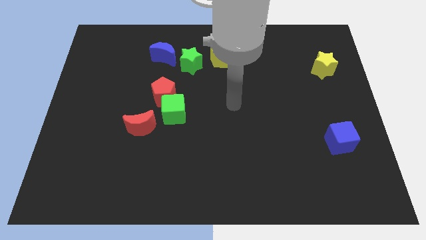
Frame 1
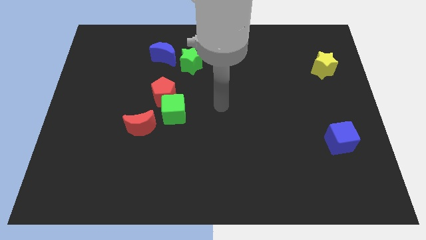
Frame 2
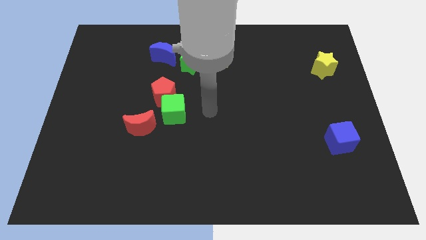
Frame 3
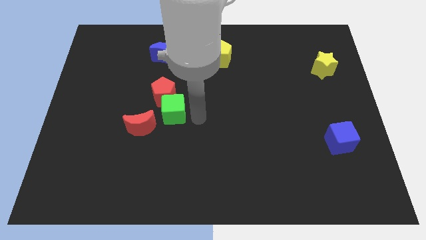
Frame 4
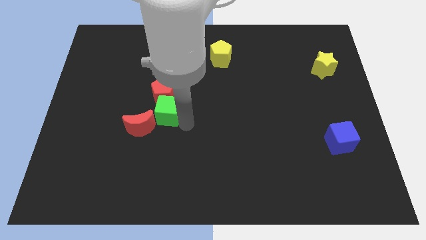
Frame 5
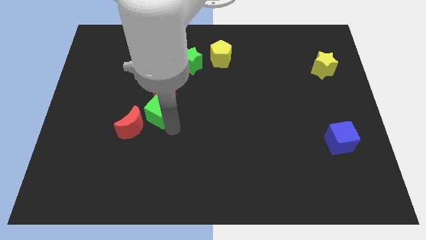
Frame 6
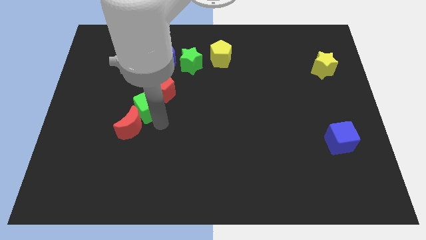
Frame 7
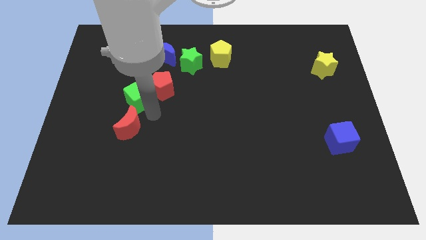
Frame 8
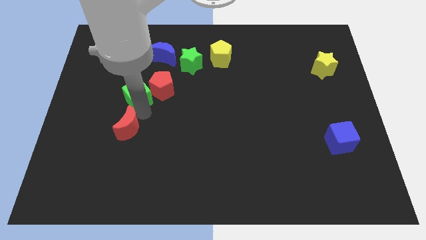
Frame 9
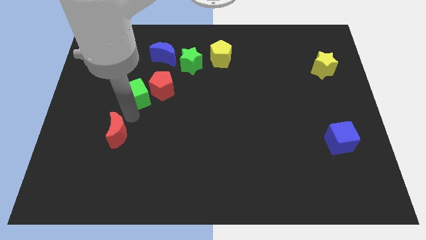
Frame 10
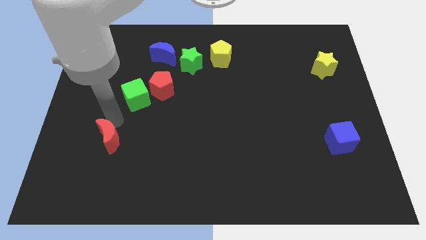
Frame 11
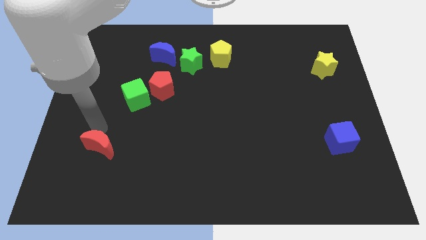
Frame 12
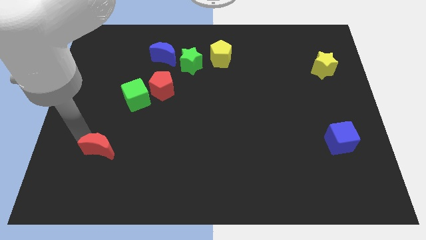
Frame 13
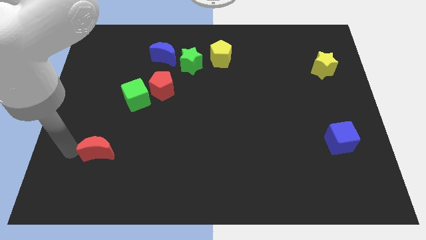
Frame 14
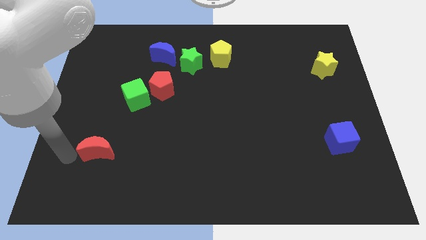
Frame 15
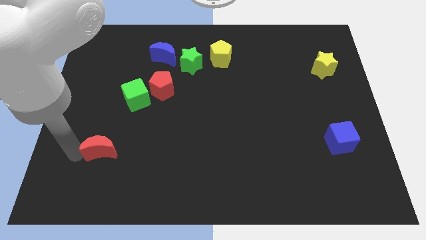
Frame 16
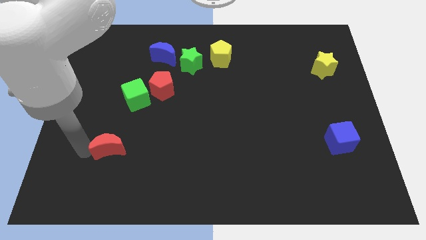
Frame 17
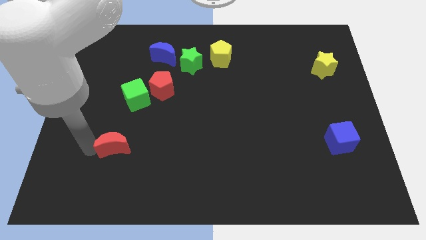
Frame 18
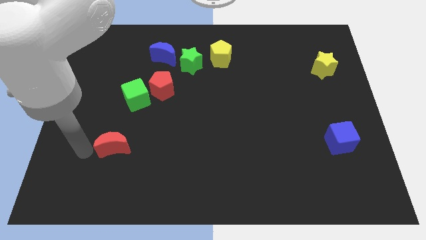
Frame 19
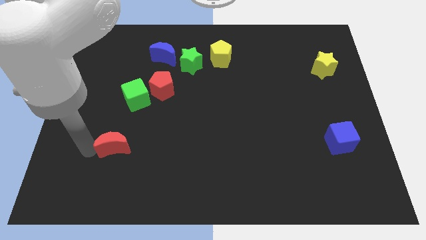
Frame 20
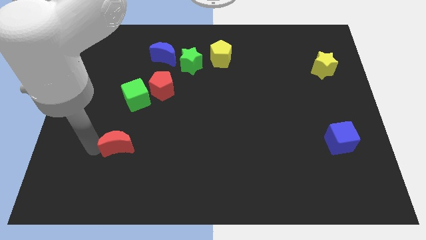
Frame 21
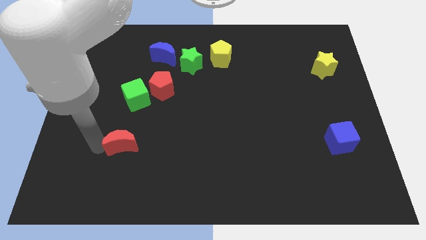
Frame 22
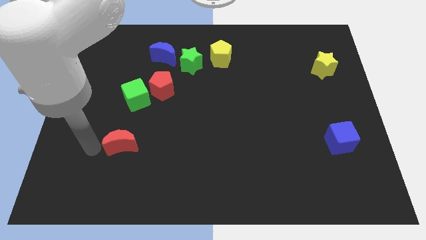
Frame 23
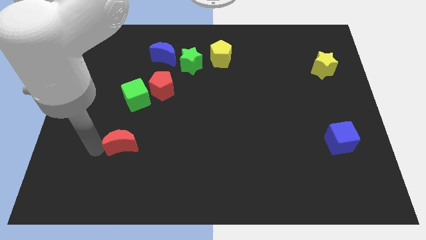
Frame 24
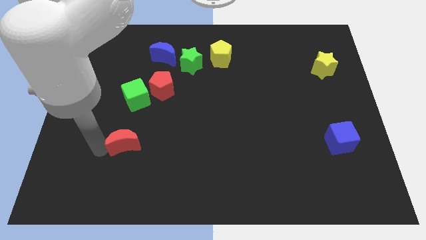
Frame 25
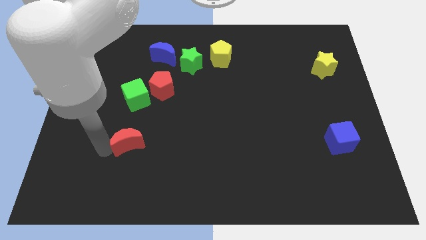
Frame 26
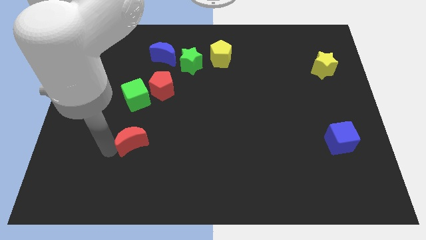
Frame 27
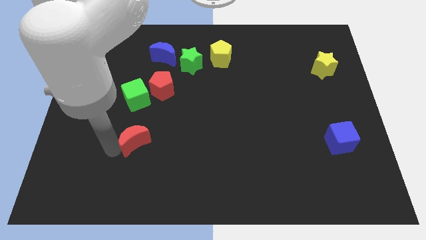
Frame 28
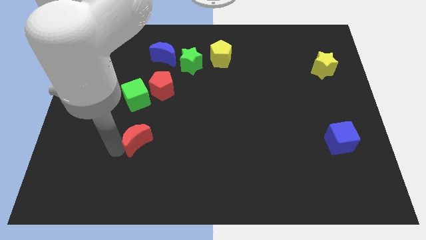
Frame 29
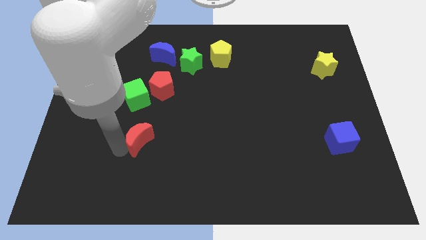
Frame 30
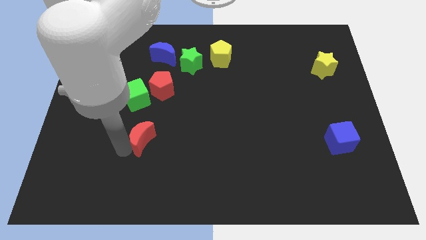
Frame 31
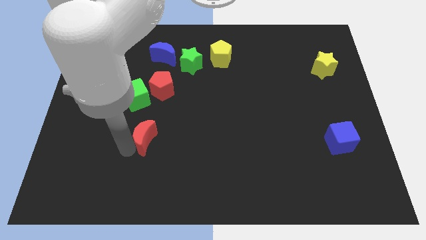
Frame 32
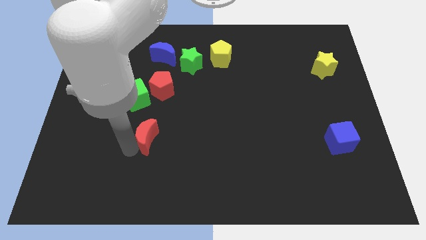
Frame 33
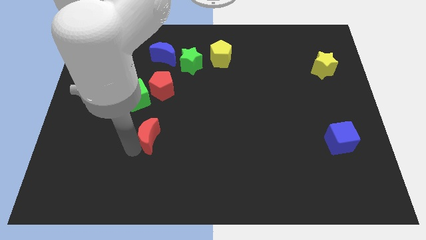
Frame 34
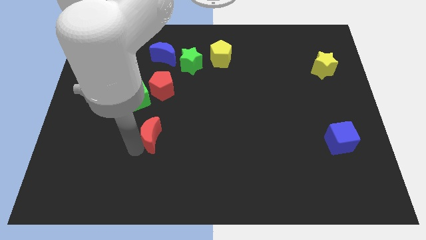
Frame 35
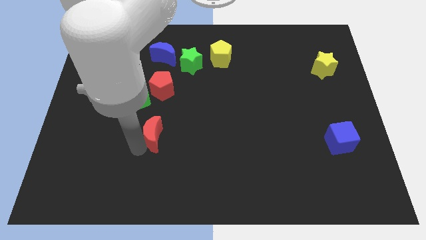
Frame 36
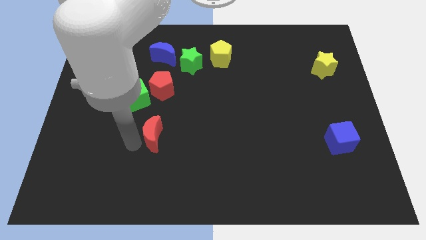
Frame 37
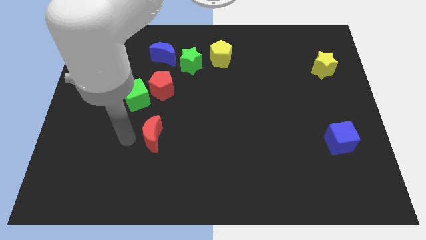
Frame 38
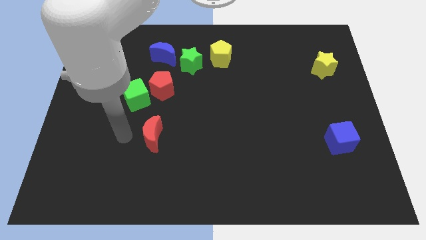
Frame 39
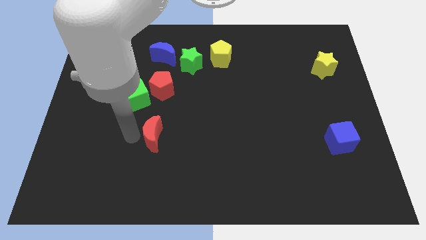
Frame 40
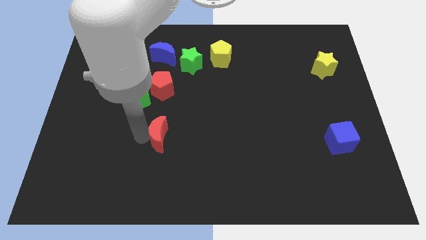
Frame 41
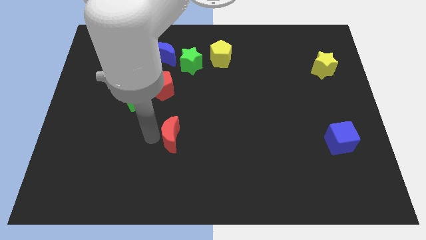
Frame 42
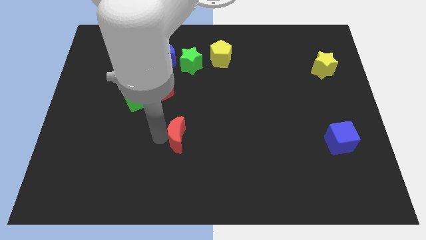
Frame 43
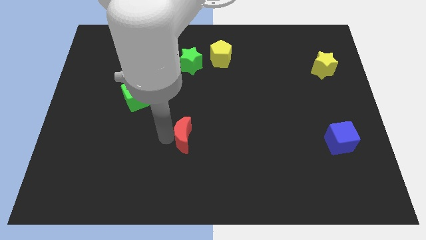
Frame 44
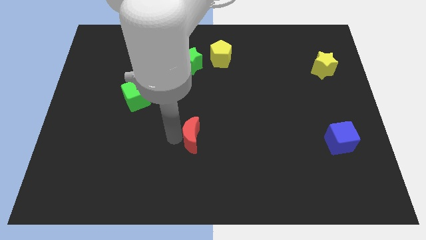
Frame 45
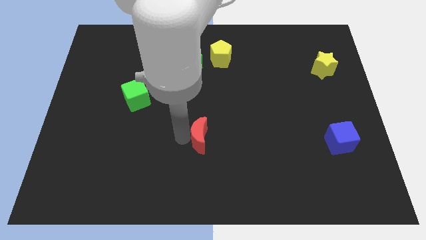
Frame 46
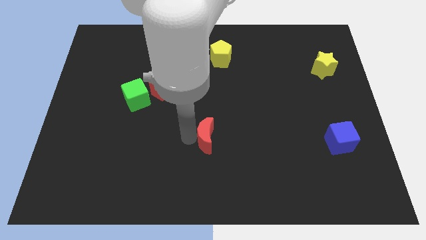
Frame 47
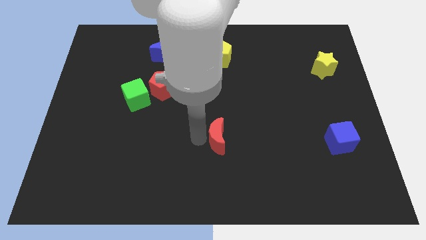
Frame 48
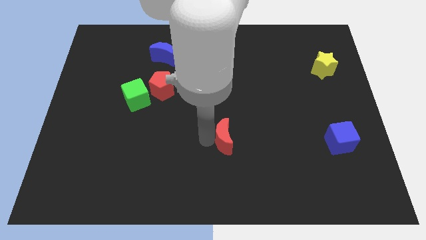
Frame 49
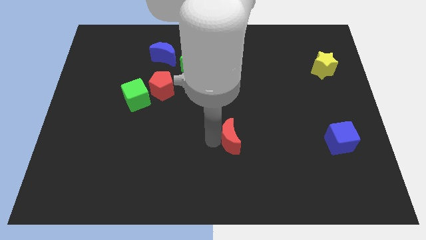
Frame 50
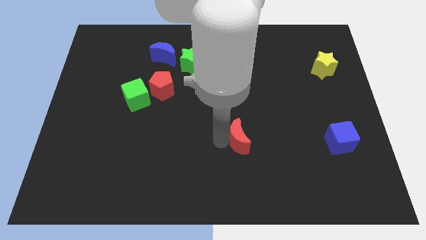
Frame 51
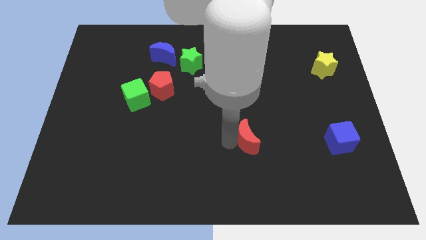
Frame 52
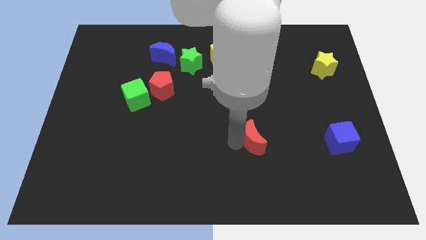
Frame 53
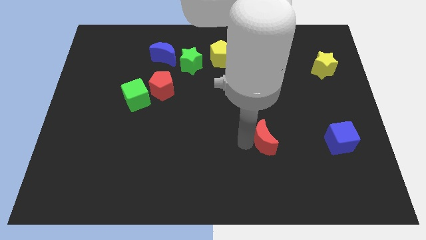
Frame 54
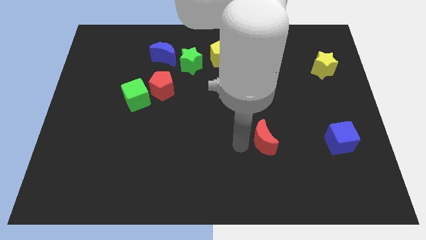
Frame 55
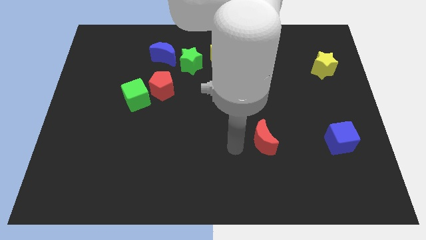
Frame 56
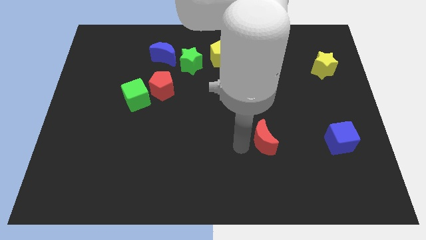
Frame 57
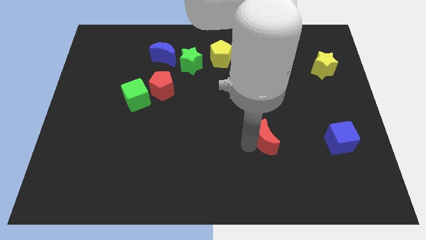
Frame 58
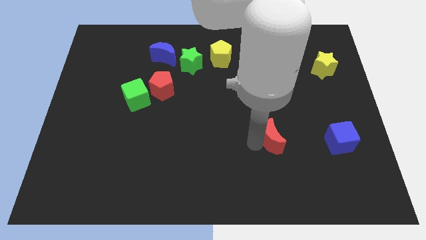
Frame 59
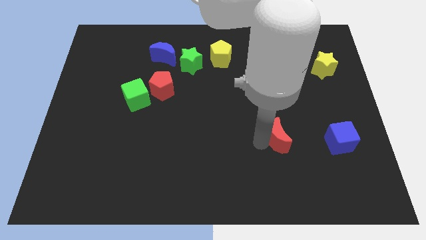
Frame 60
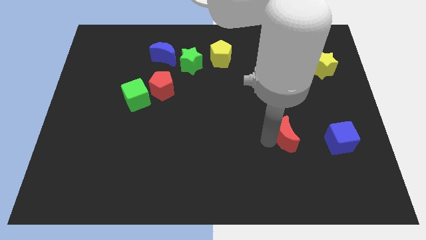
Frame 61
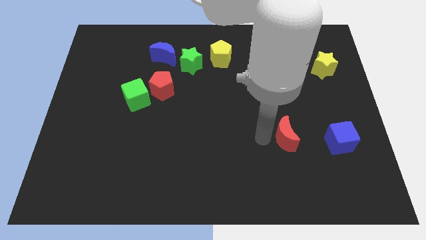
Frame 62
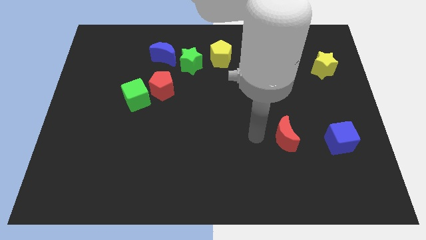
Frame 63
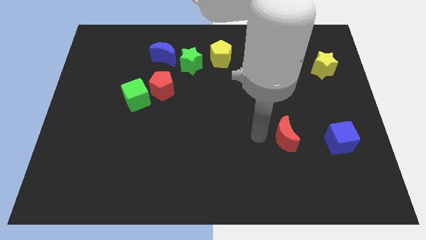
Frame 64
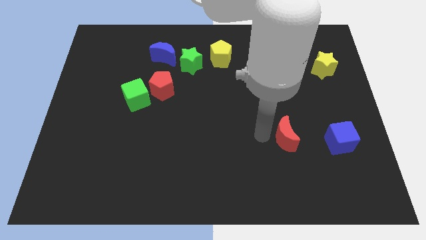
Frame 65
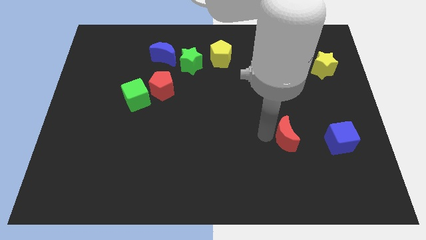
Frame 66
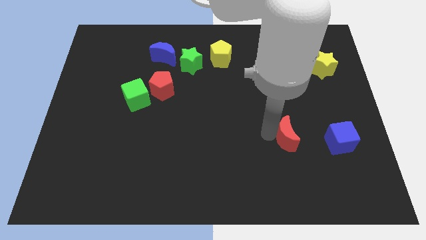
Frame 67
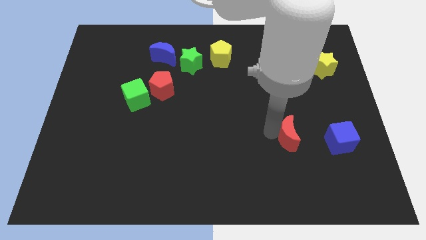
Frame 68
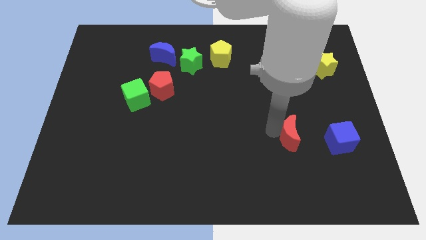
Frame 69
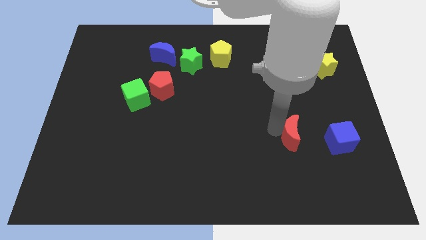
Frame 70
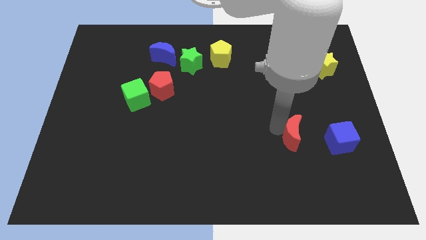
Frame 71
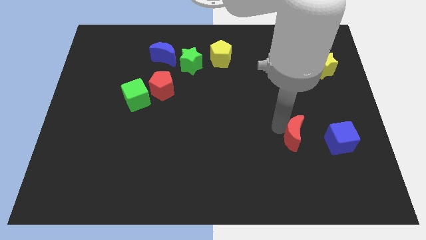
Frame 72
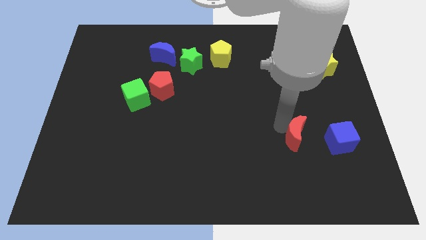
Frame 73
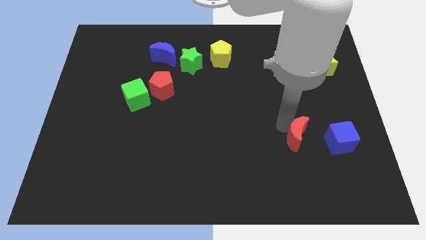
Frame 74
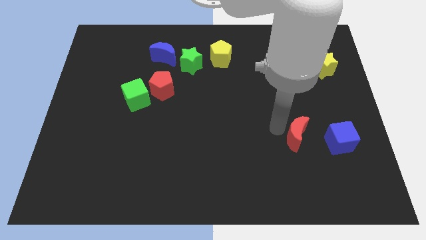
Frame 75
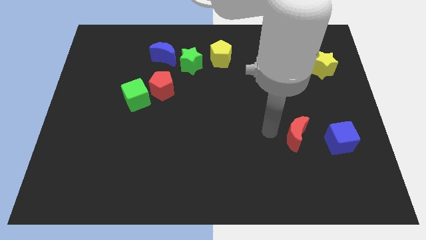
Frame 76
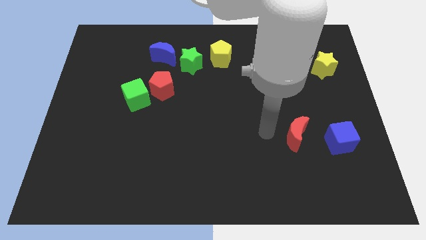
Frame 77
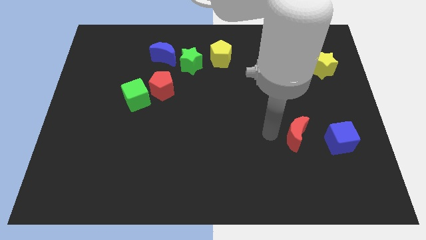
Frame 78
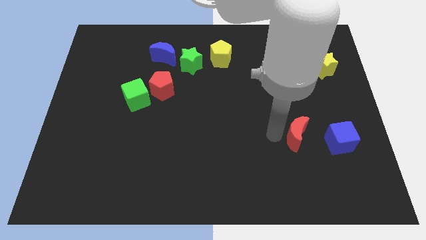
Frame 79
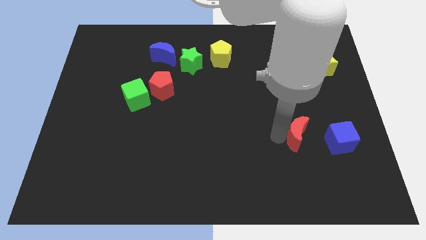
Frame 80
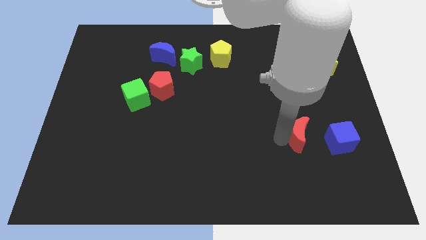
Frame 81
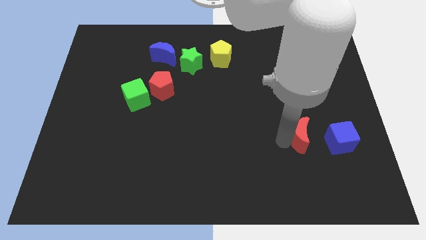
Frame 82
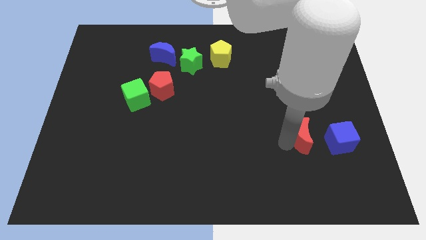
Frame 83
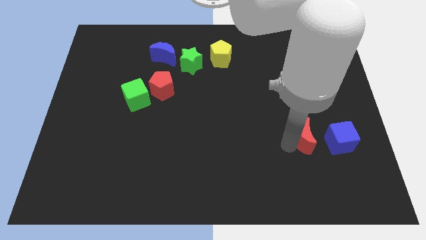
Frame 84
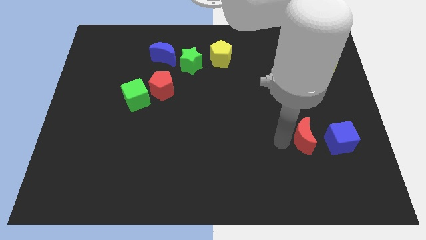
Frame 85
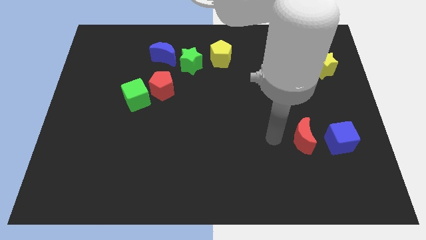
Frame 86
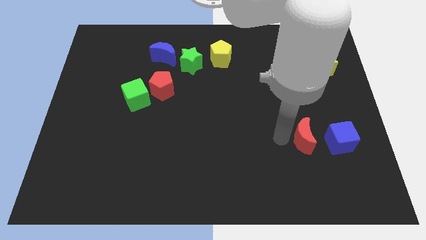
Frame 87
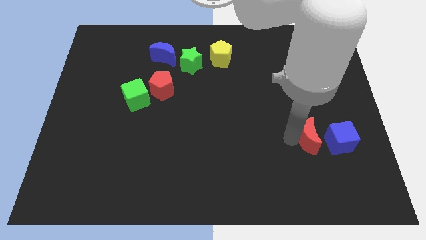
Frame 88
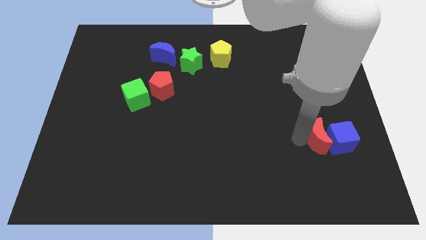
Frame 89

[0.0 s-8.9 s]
slide the red moon to the blue cube
